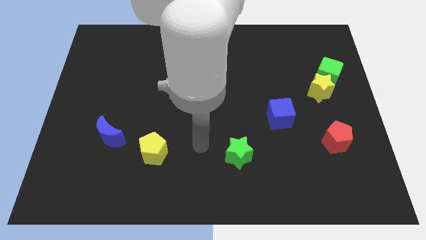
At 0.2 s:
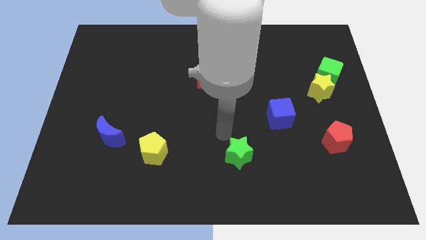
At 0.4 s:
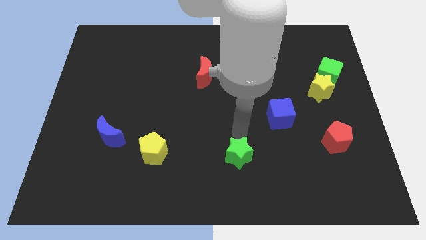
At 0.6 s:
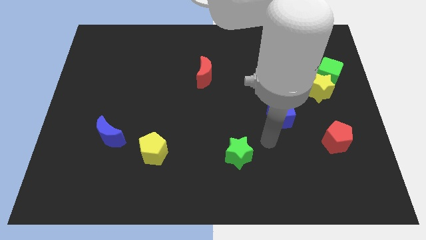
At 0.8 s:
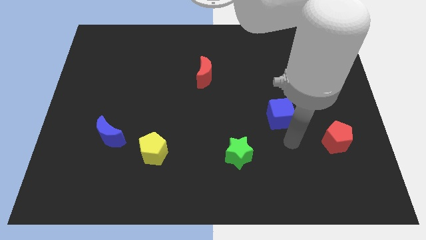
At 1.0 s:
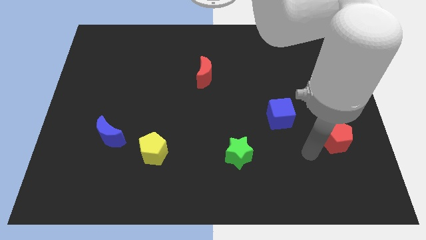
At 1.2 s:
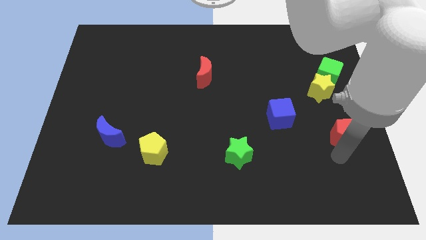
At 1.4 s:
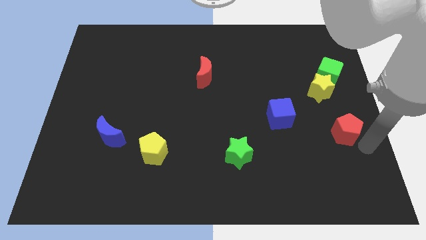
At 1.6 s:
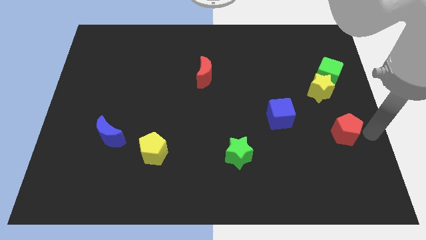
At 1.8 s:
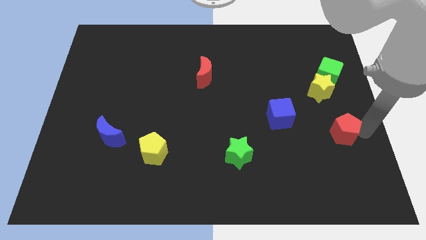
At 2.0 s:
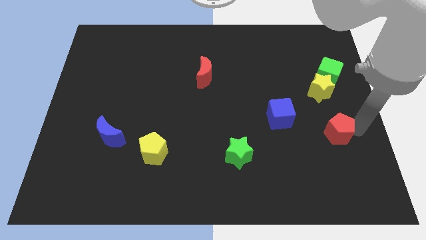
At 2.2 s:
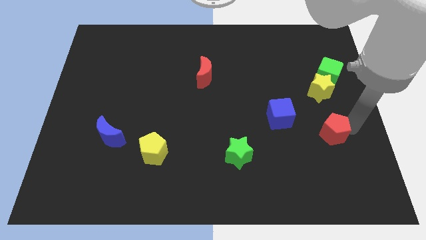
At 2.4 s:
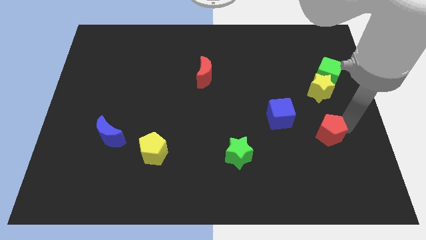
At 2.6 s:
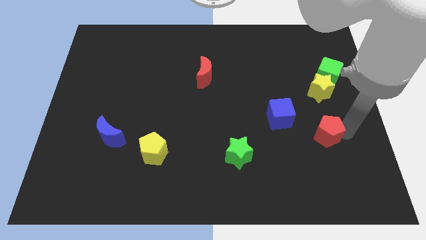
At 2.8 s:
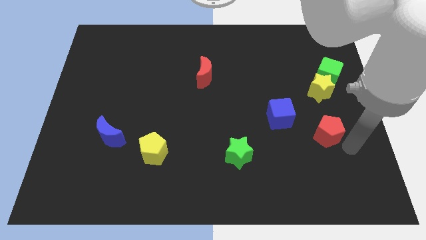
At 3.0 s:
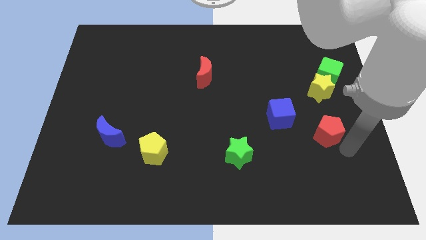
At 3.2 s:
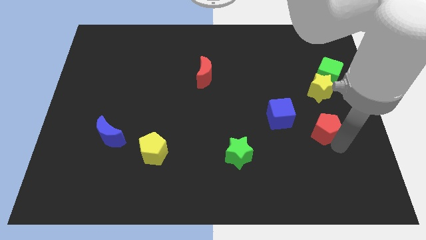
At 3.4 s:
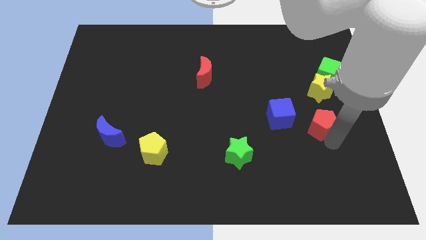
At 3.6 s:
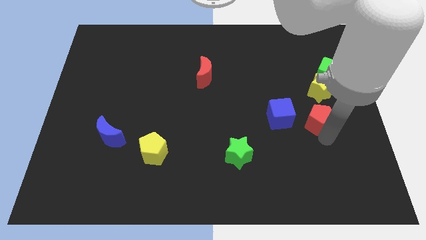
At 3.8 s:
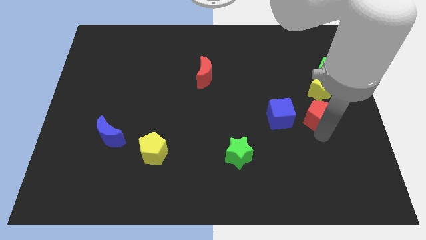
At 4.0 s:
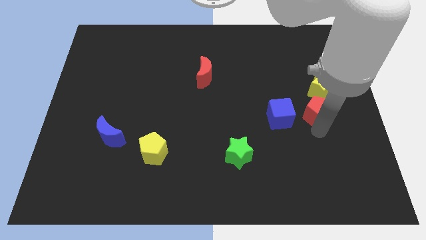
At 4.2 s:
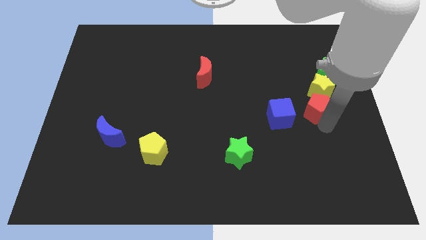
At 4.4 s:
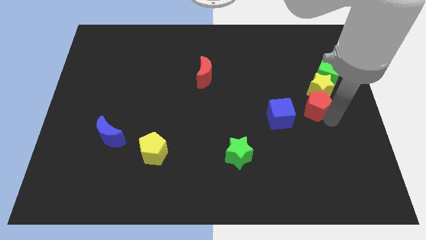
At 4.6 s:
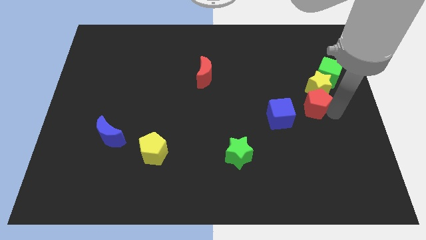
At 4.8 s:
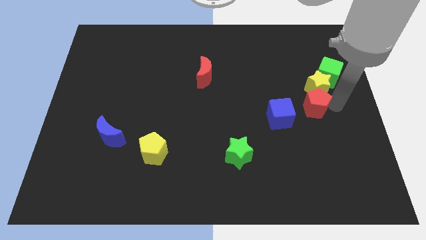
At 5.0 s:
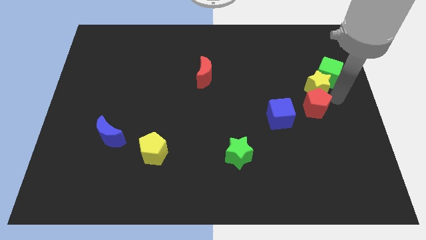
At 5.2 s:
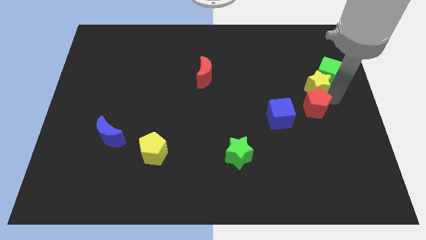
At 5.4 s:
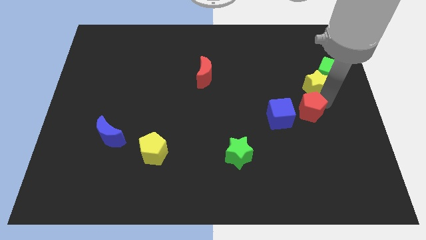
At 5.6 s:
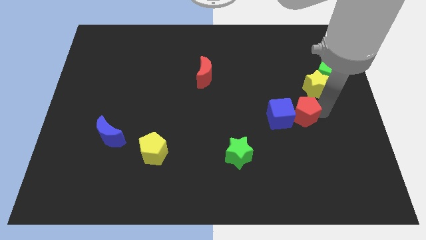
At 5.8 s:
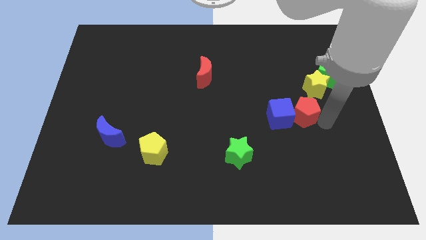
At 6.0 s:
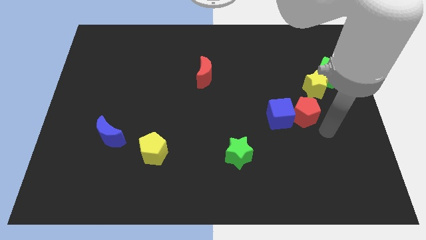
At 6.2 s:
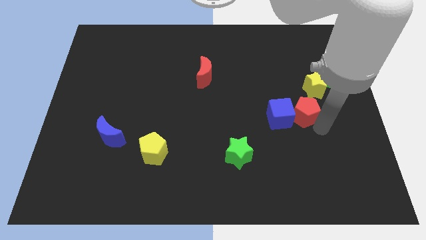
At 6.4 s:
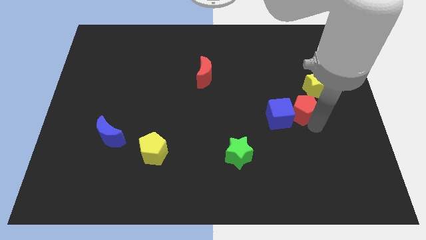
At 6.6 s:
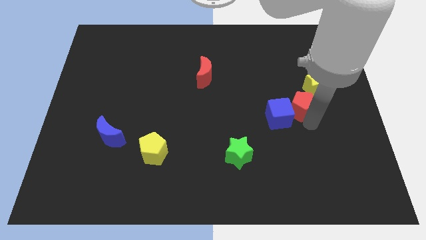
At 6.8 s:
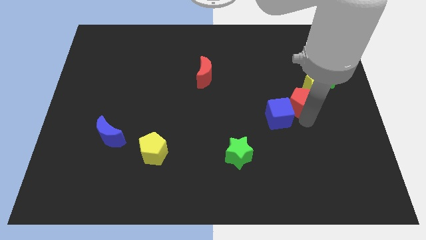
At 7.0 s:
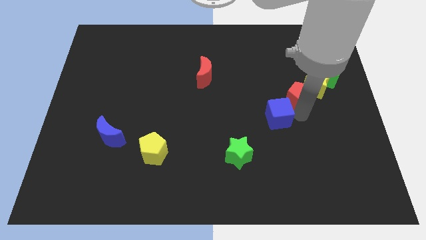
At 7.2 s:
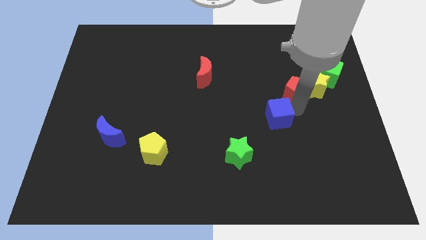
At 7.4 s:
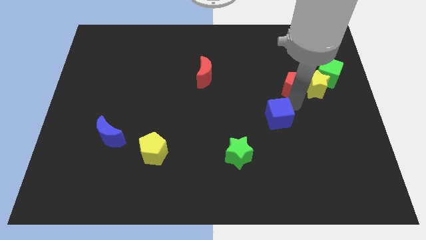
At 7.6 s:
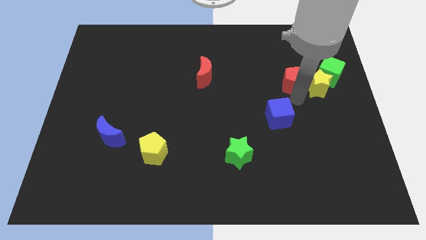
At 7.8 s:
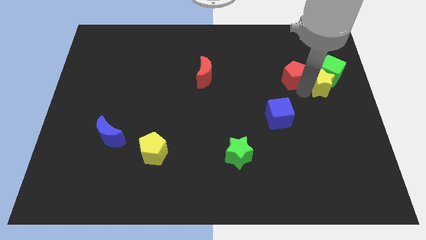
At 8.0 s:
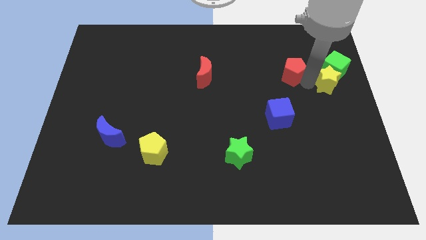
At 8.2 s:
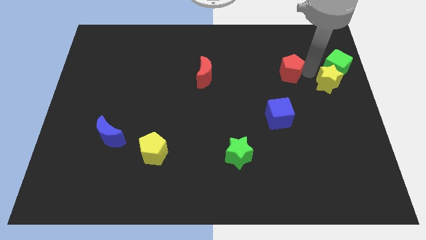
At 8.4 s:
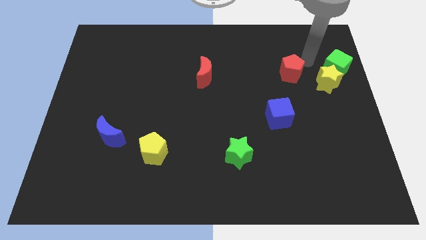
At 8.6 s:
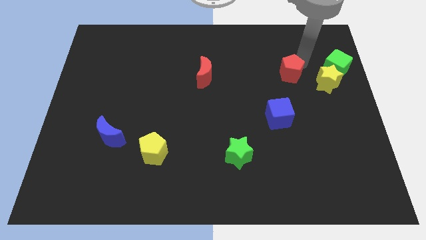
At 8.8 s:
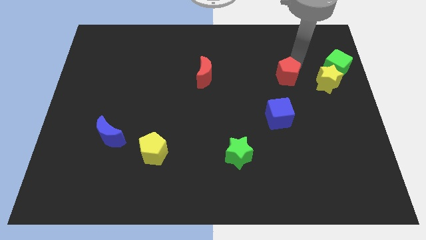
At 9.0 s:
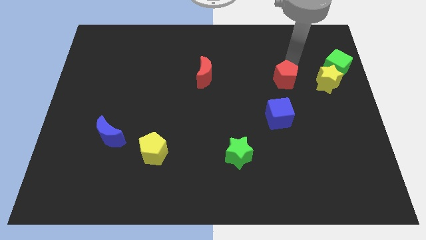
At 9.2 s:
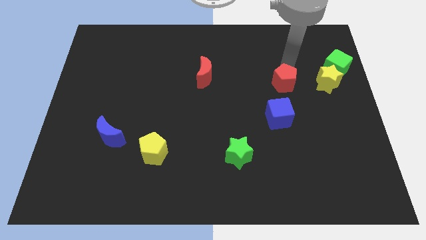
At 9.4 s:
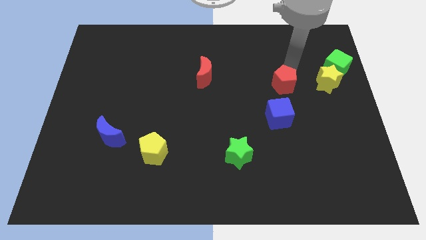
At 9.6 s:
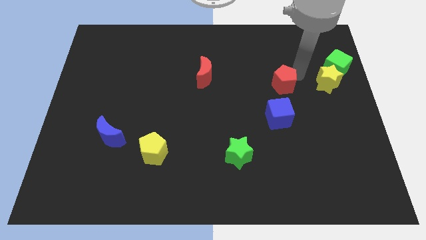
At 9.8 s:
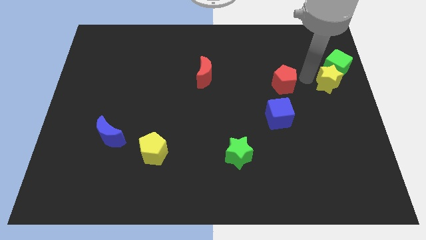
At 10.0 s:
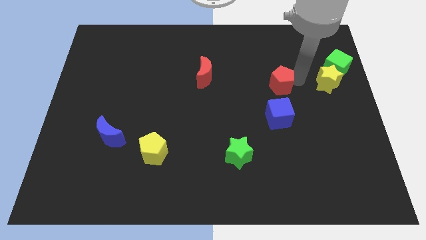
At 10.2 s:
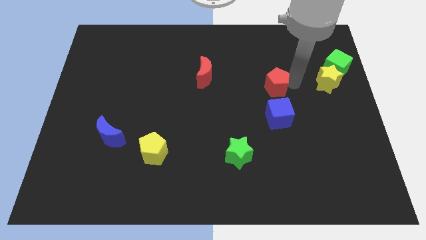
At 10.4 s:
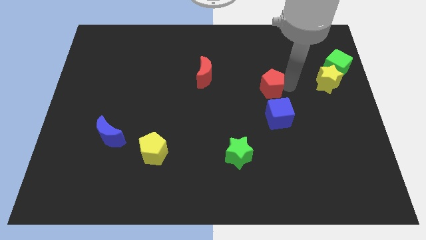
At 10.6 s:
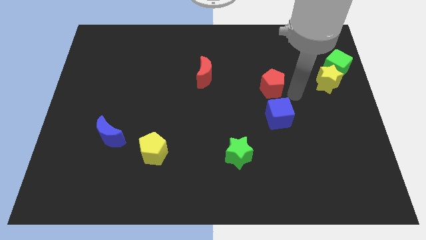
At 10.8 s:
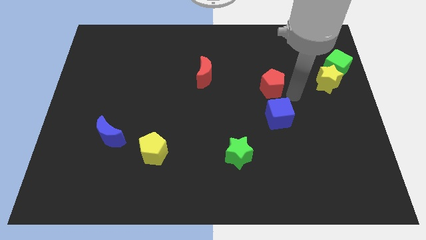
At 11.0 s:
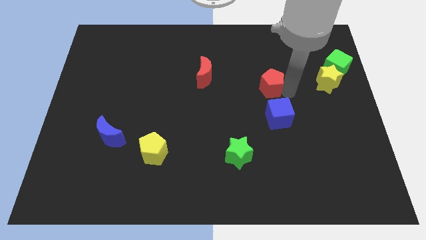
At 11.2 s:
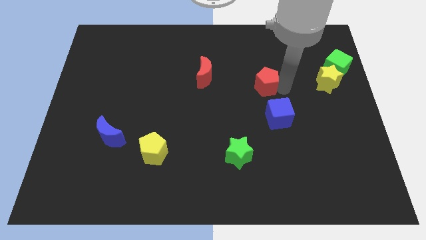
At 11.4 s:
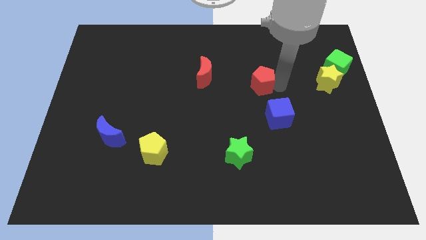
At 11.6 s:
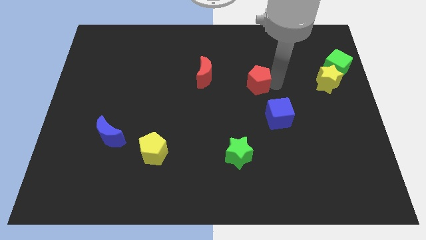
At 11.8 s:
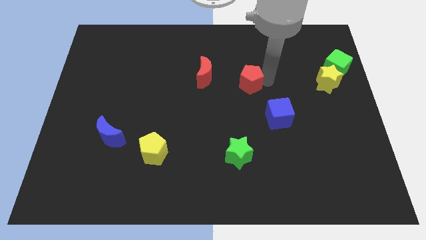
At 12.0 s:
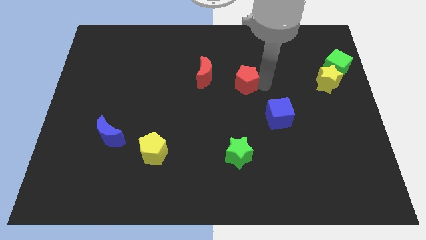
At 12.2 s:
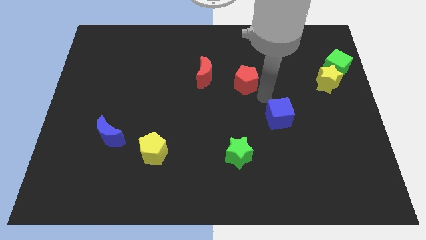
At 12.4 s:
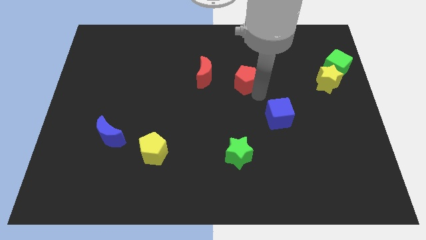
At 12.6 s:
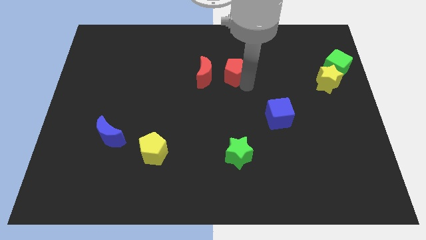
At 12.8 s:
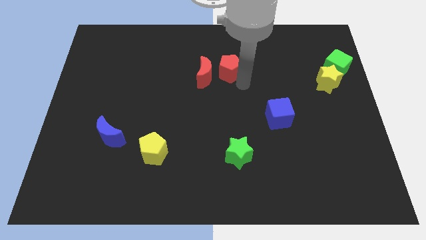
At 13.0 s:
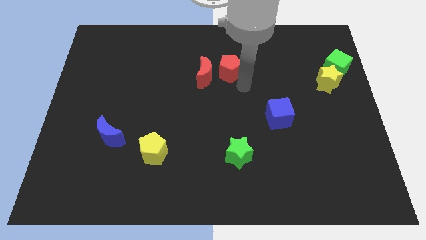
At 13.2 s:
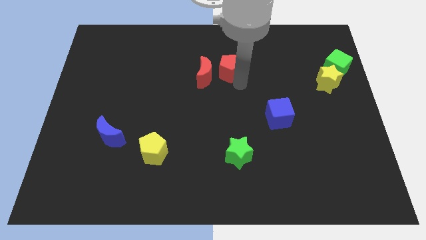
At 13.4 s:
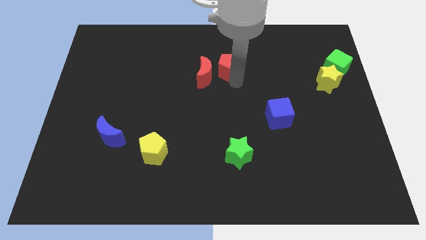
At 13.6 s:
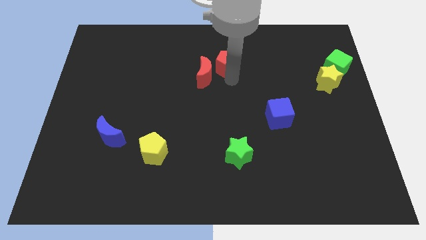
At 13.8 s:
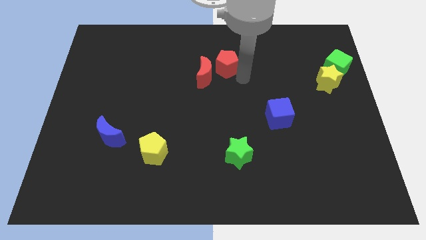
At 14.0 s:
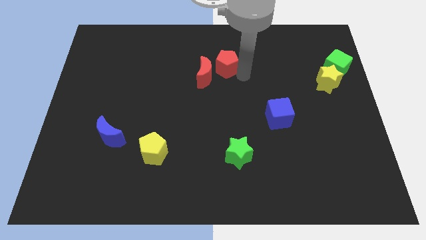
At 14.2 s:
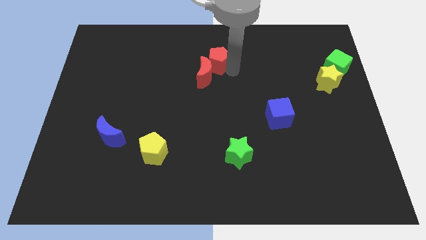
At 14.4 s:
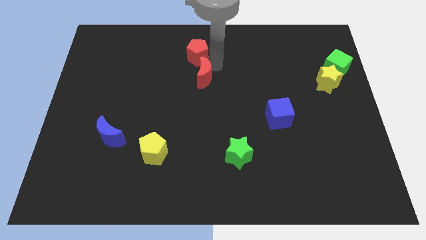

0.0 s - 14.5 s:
put the red pentagon to the top
